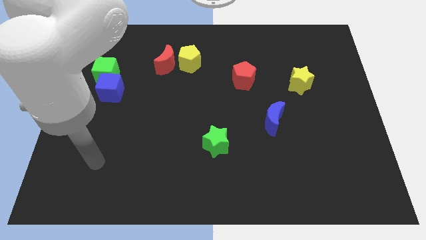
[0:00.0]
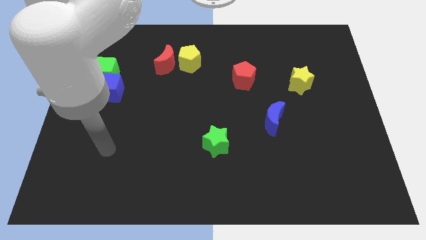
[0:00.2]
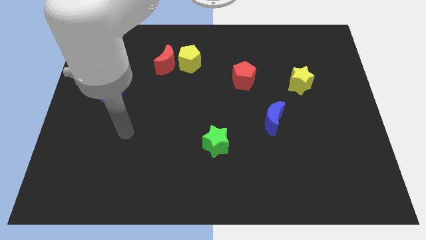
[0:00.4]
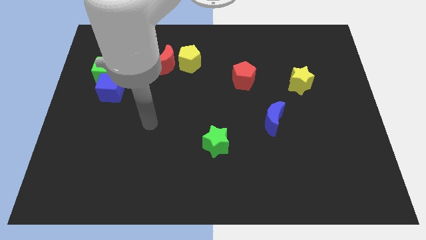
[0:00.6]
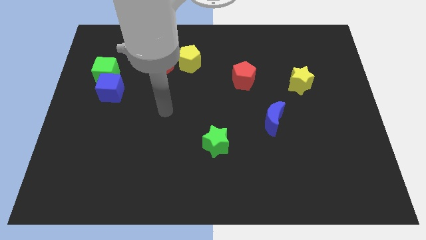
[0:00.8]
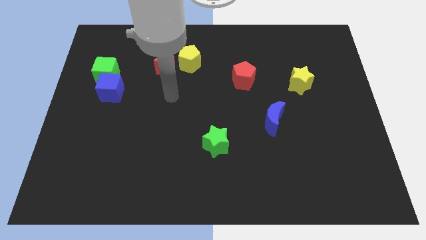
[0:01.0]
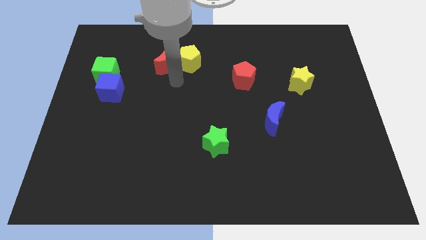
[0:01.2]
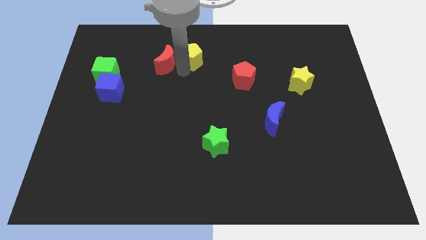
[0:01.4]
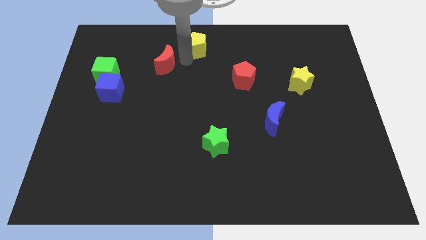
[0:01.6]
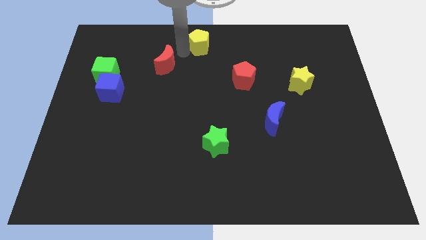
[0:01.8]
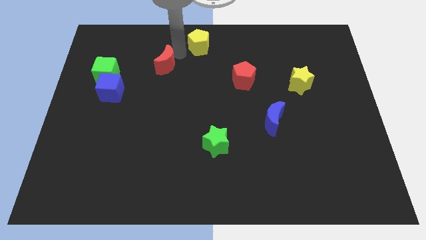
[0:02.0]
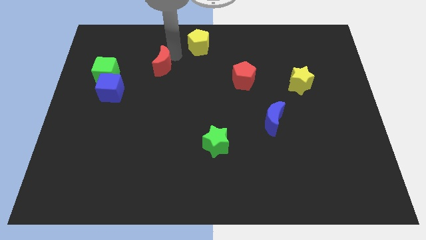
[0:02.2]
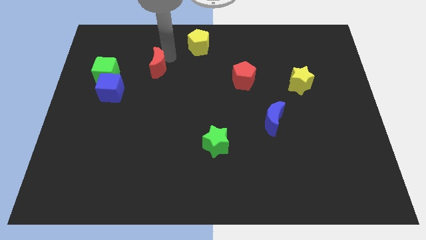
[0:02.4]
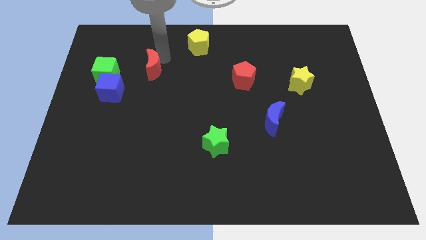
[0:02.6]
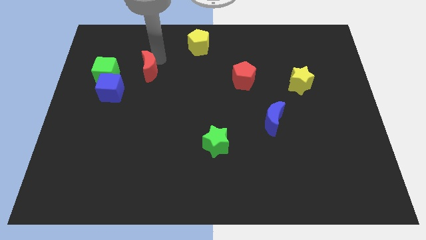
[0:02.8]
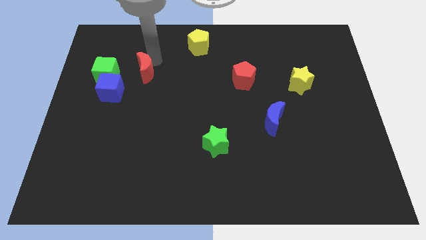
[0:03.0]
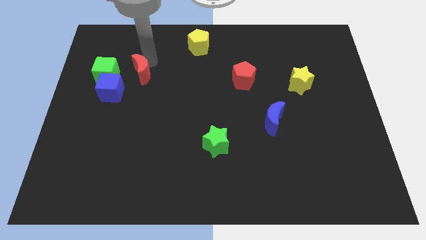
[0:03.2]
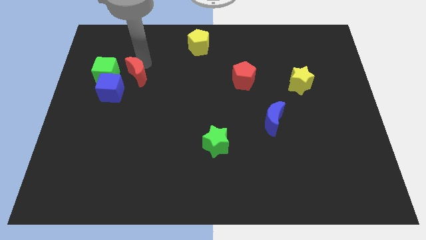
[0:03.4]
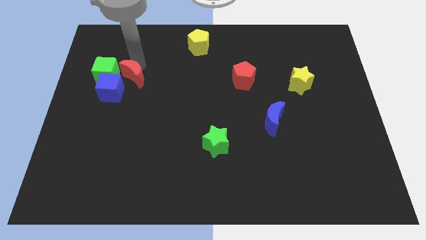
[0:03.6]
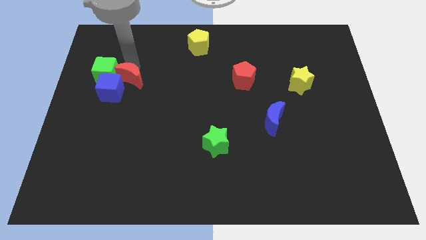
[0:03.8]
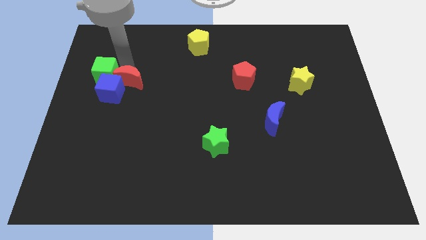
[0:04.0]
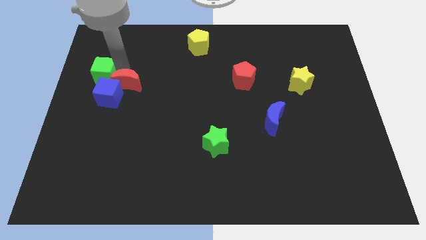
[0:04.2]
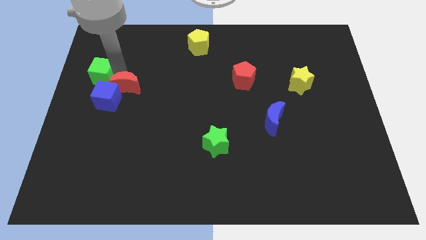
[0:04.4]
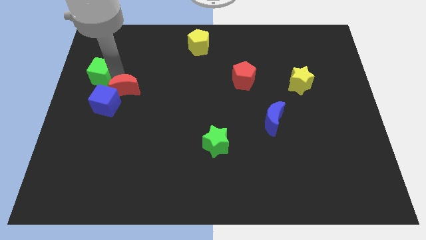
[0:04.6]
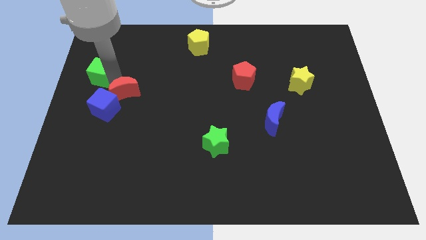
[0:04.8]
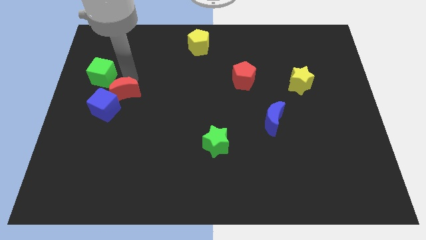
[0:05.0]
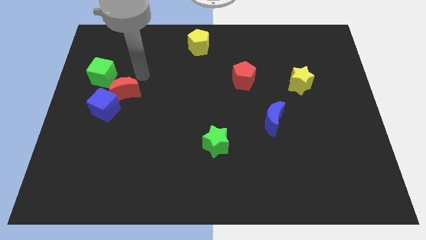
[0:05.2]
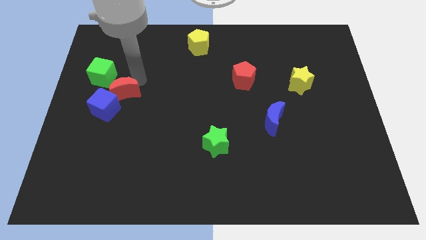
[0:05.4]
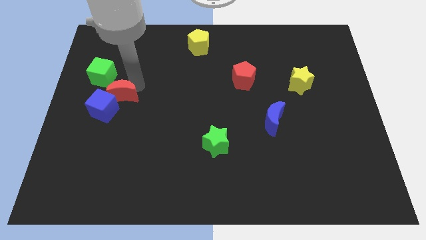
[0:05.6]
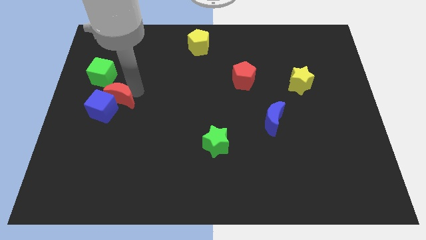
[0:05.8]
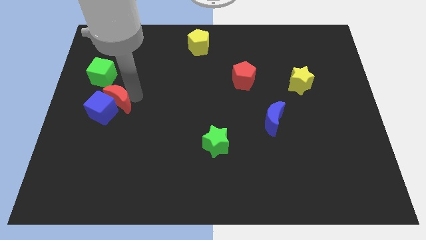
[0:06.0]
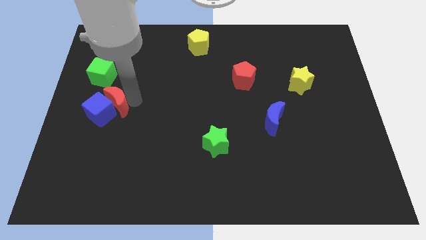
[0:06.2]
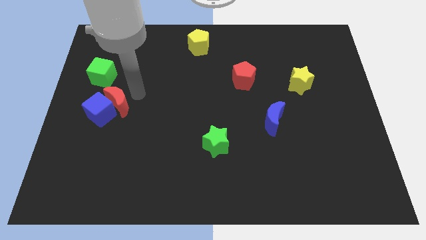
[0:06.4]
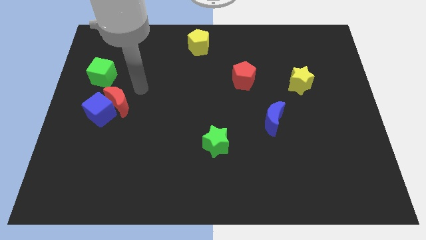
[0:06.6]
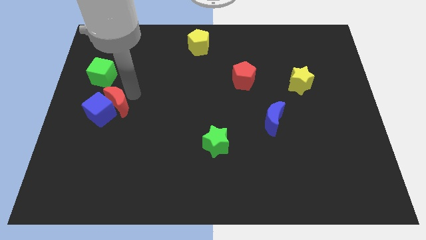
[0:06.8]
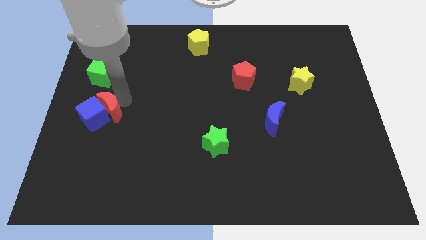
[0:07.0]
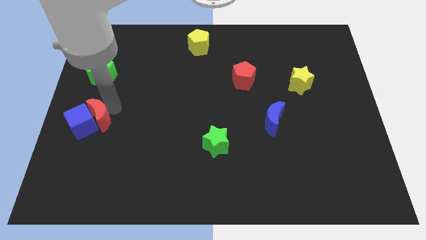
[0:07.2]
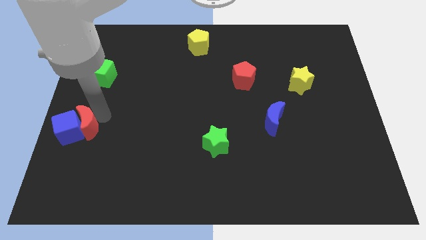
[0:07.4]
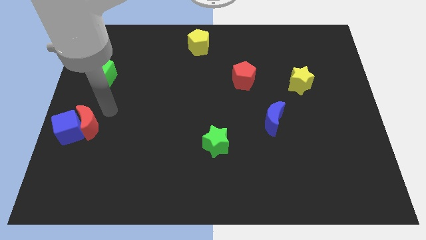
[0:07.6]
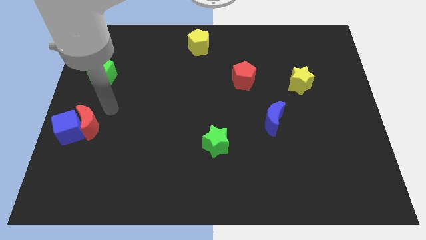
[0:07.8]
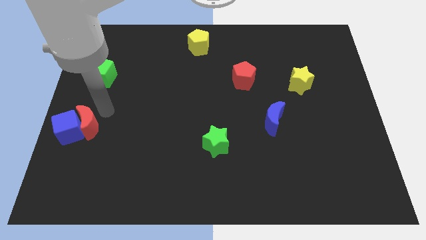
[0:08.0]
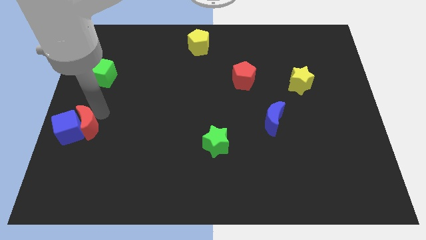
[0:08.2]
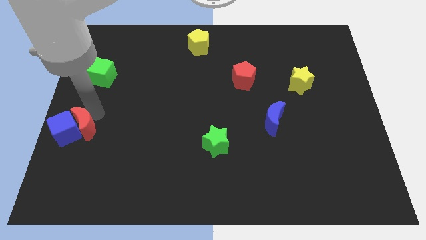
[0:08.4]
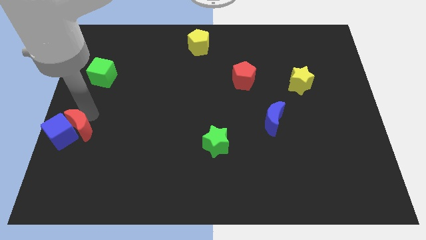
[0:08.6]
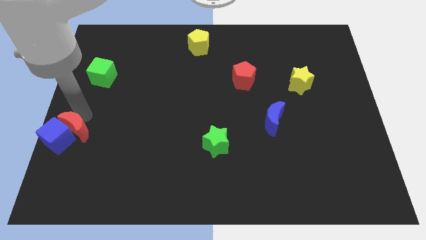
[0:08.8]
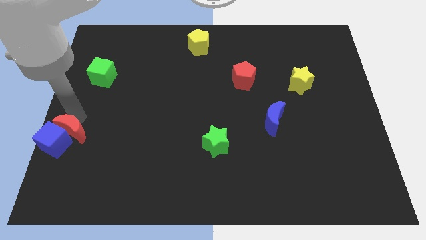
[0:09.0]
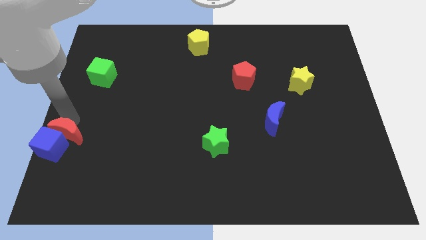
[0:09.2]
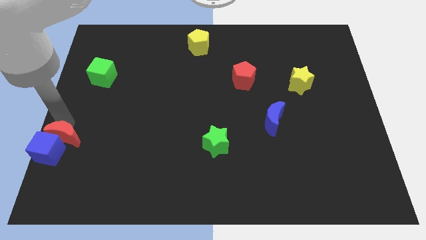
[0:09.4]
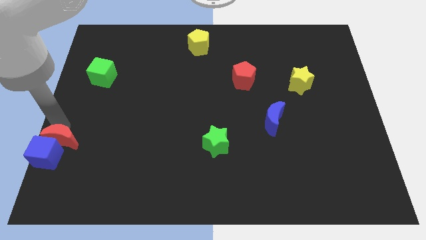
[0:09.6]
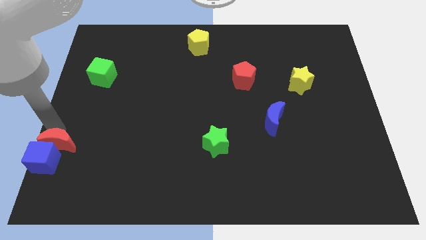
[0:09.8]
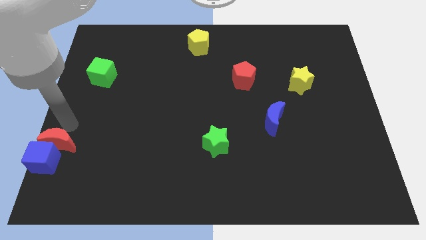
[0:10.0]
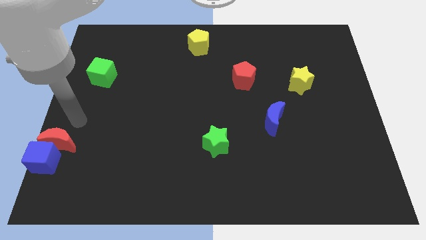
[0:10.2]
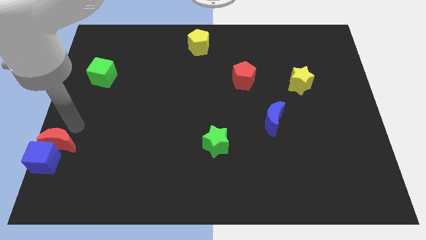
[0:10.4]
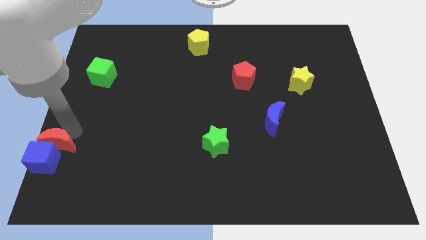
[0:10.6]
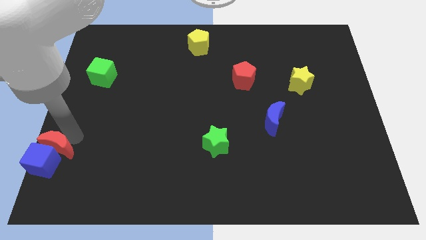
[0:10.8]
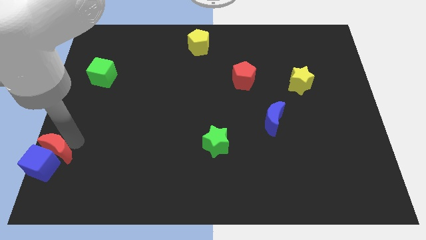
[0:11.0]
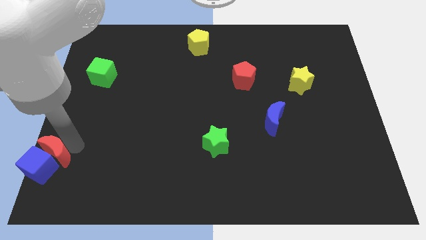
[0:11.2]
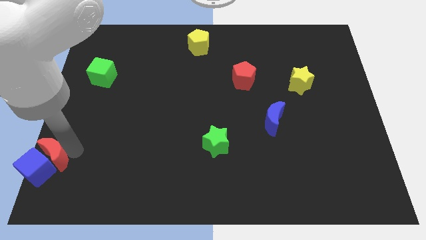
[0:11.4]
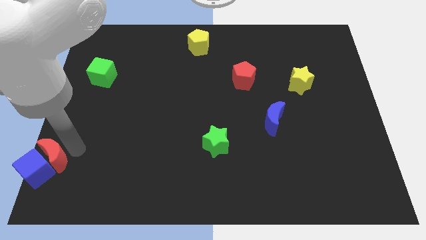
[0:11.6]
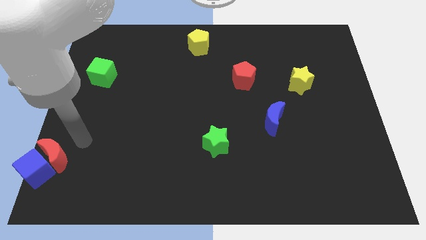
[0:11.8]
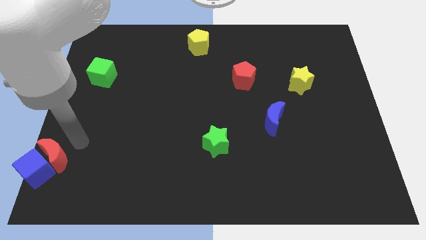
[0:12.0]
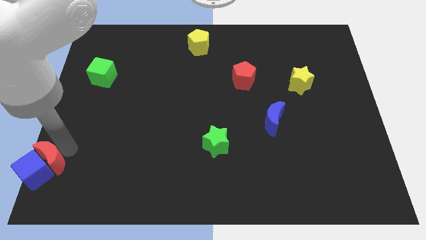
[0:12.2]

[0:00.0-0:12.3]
slide the red moon to the lower left corner
